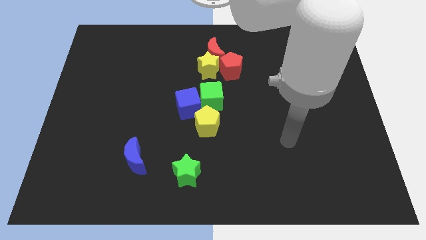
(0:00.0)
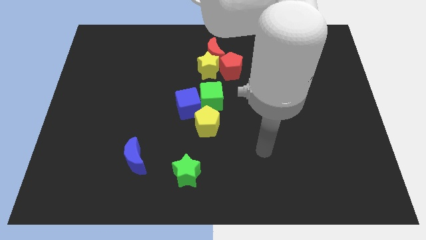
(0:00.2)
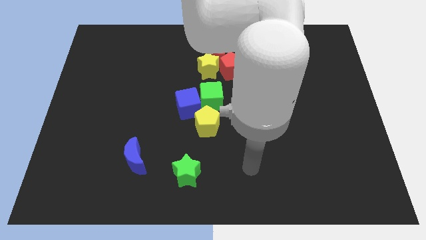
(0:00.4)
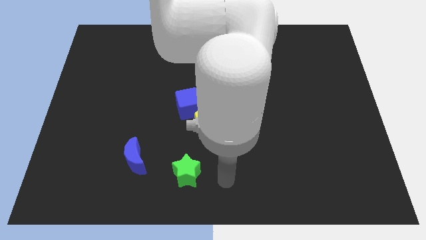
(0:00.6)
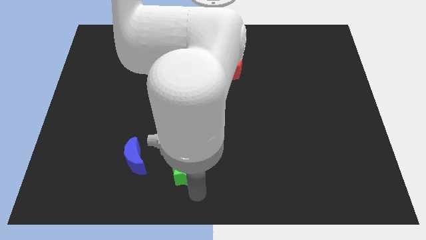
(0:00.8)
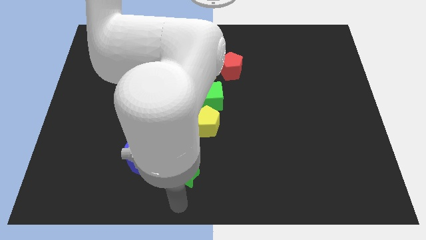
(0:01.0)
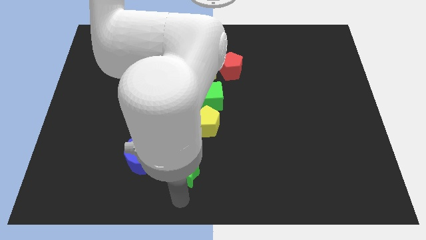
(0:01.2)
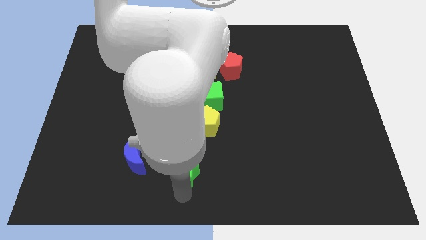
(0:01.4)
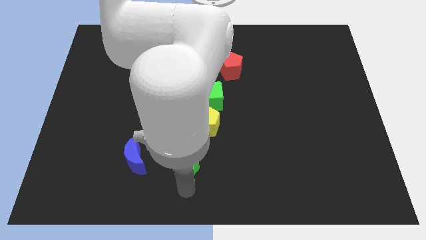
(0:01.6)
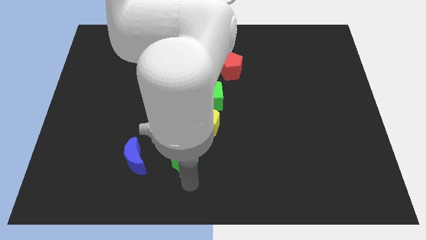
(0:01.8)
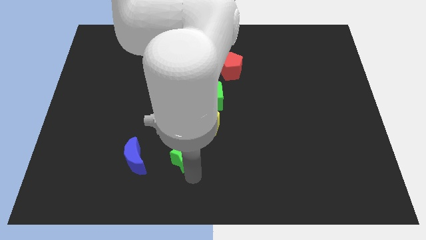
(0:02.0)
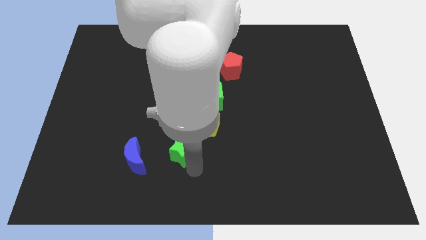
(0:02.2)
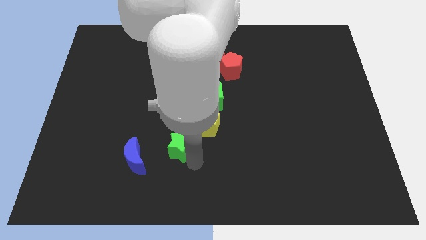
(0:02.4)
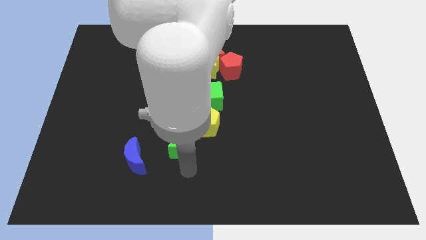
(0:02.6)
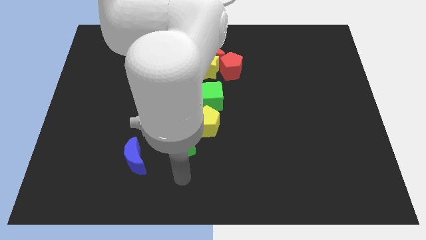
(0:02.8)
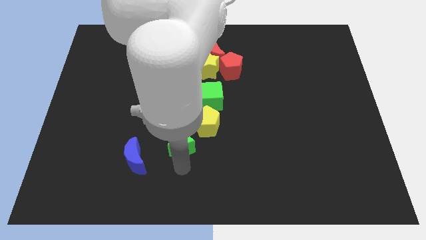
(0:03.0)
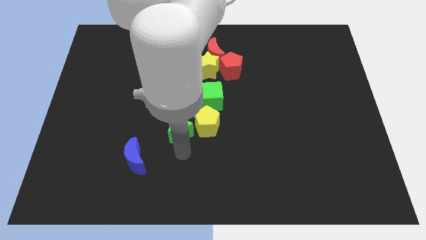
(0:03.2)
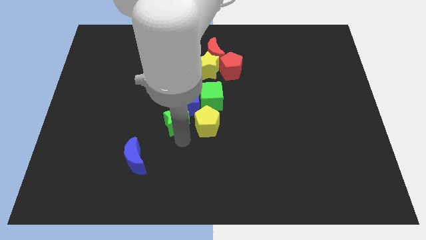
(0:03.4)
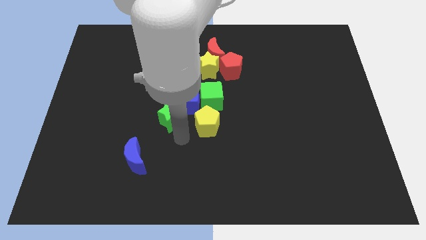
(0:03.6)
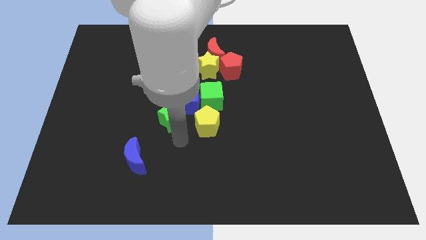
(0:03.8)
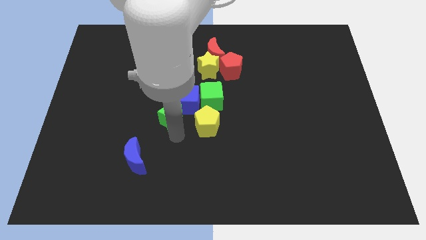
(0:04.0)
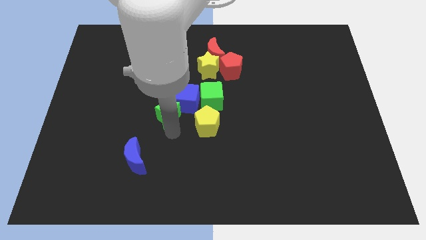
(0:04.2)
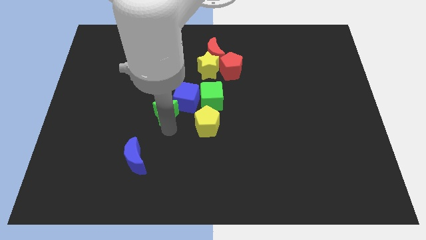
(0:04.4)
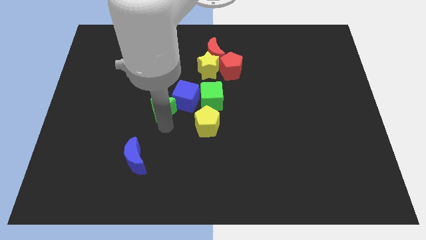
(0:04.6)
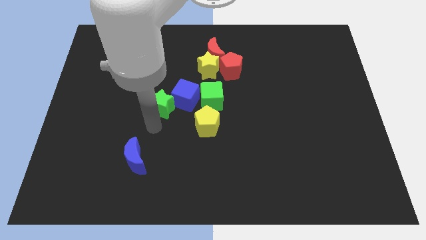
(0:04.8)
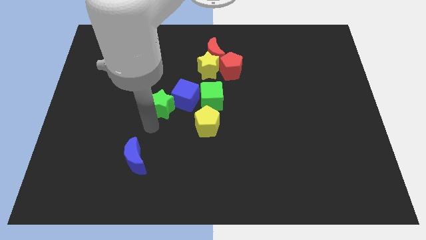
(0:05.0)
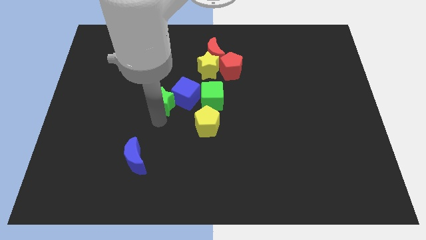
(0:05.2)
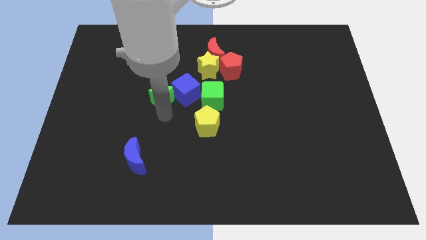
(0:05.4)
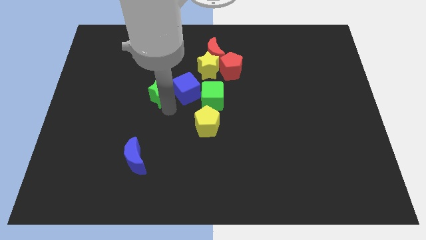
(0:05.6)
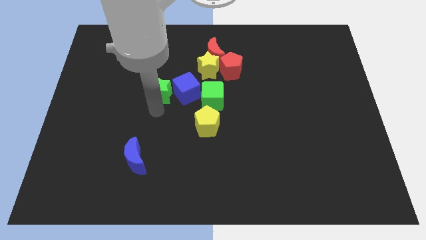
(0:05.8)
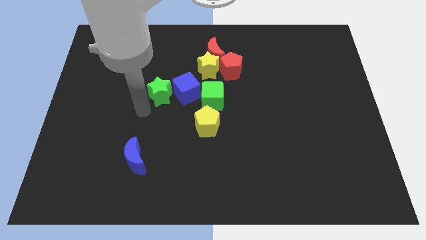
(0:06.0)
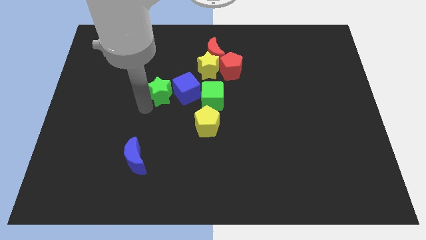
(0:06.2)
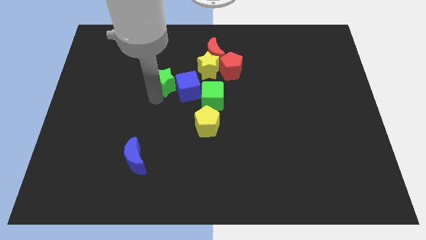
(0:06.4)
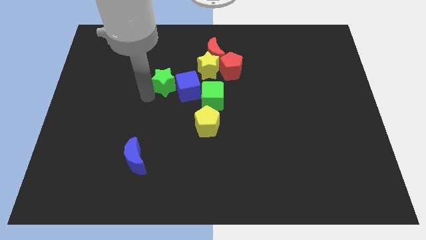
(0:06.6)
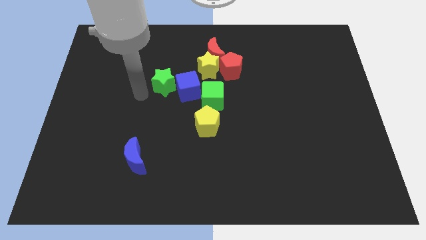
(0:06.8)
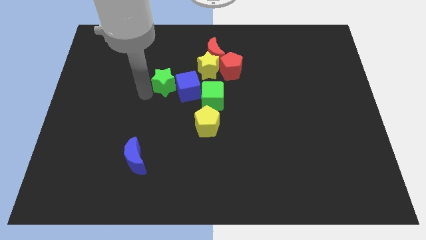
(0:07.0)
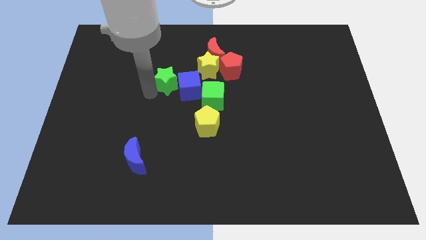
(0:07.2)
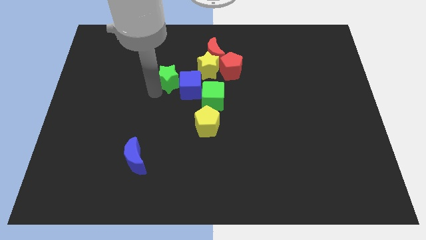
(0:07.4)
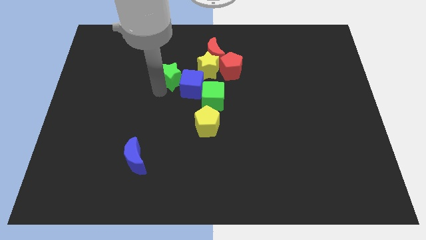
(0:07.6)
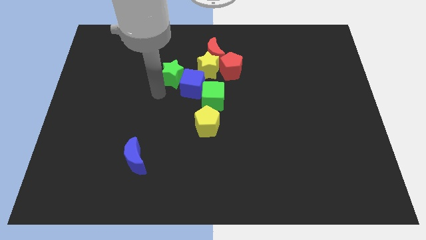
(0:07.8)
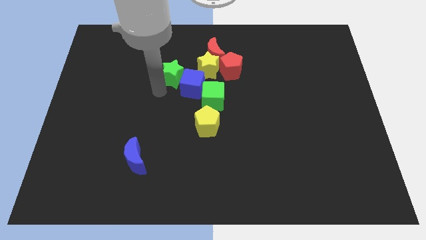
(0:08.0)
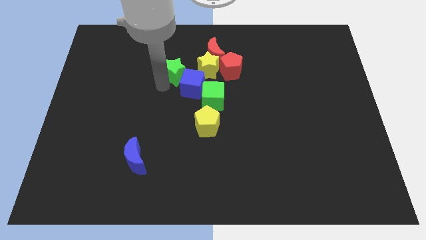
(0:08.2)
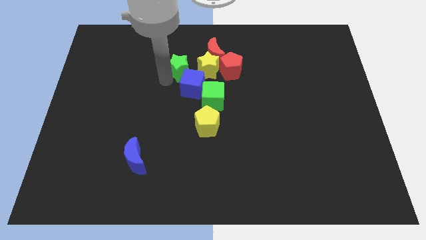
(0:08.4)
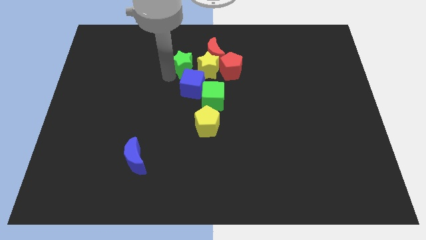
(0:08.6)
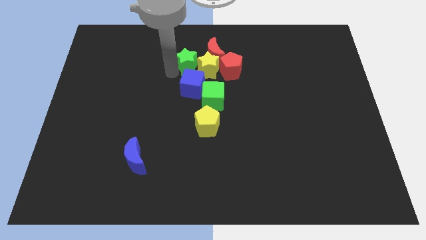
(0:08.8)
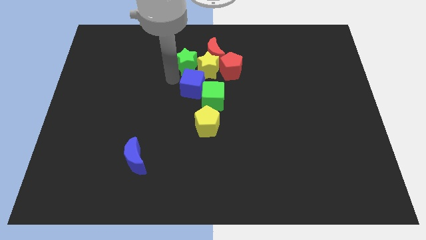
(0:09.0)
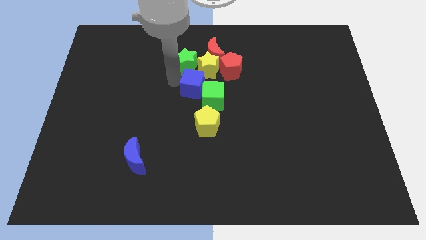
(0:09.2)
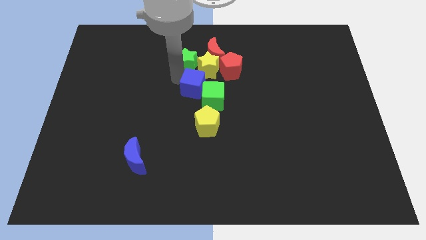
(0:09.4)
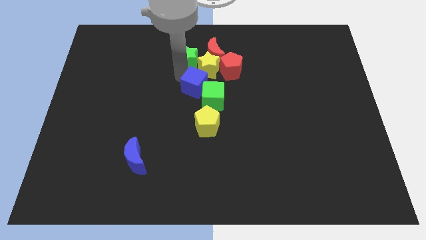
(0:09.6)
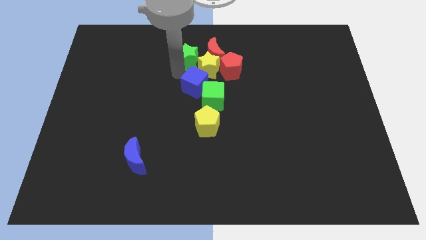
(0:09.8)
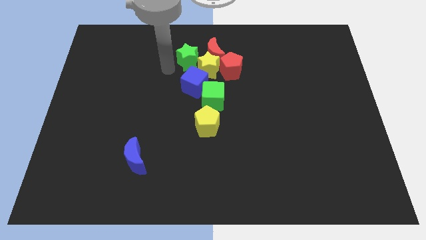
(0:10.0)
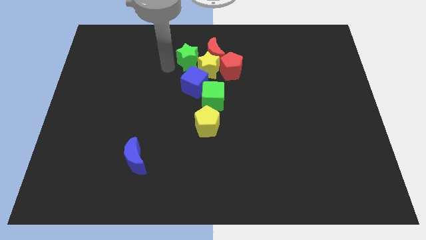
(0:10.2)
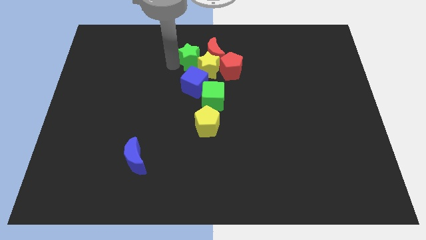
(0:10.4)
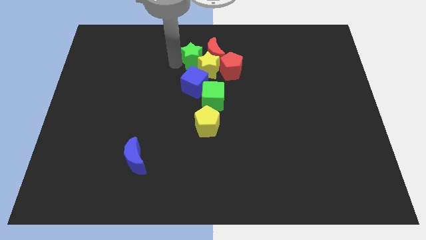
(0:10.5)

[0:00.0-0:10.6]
slide the green star diagonally up and to the left of the red pentagon

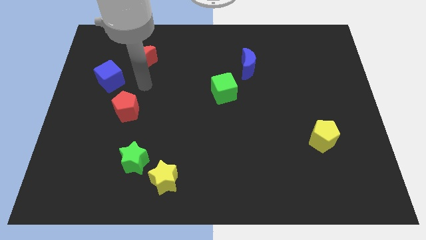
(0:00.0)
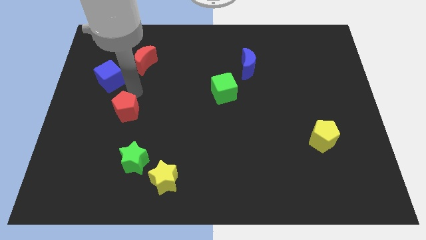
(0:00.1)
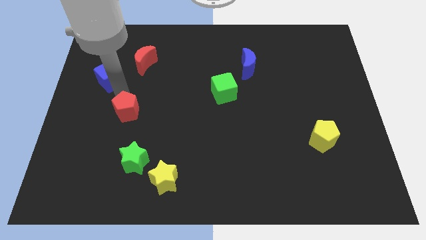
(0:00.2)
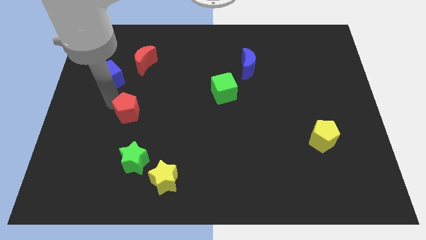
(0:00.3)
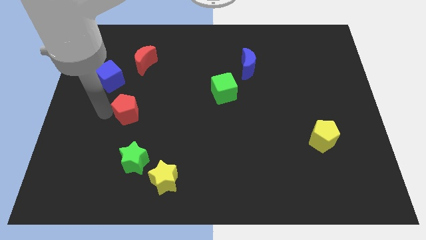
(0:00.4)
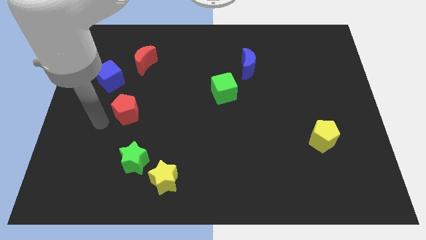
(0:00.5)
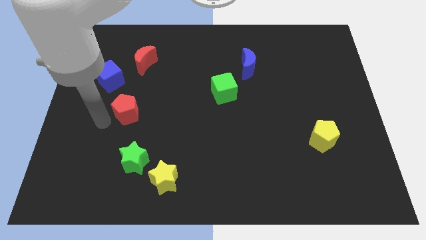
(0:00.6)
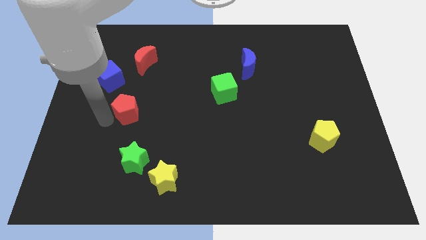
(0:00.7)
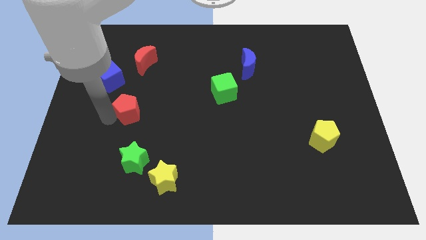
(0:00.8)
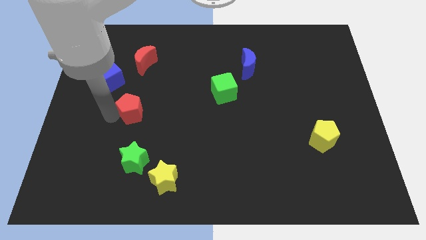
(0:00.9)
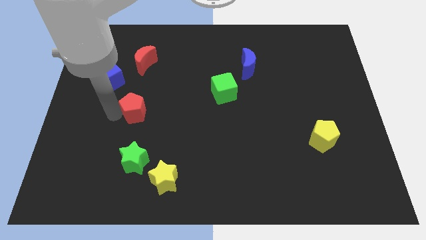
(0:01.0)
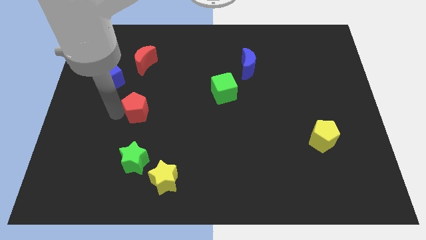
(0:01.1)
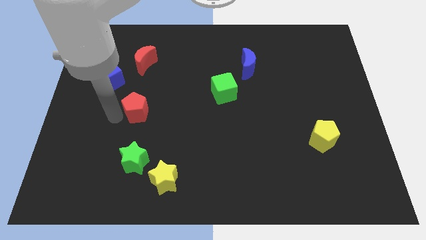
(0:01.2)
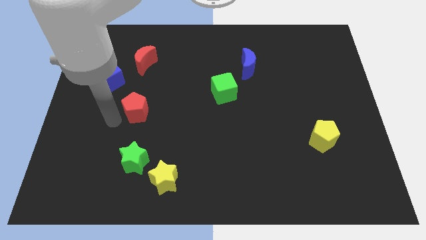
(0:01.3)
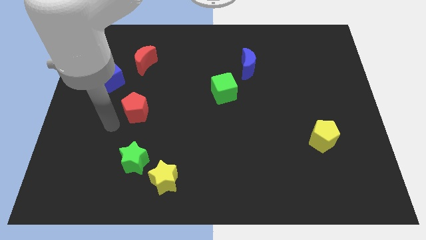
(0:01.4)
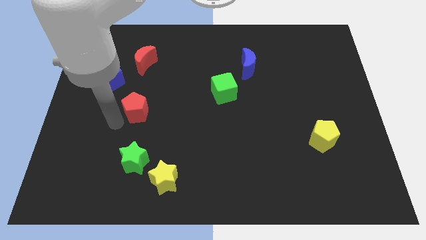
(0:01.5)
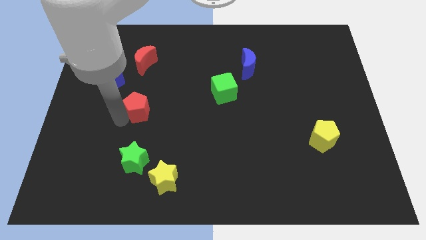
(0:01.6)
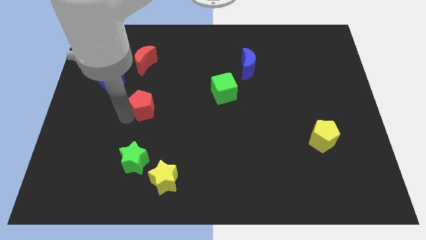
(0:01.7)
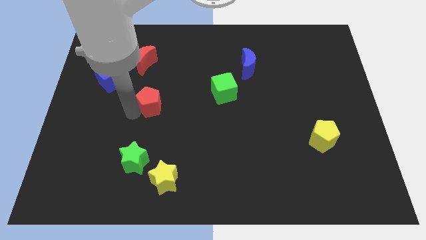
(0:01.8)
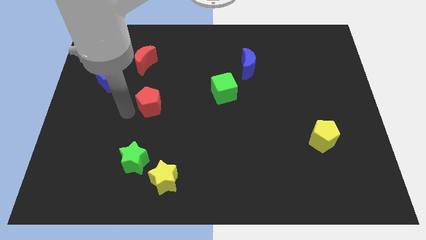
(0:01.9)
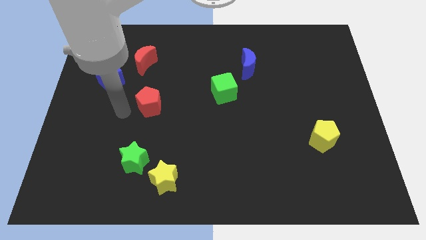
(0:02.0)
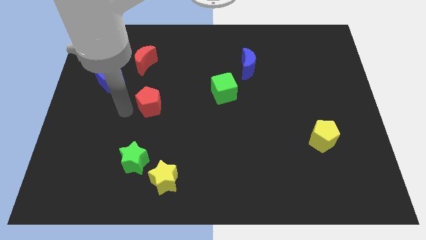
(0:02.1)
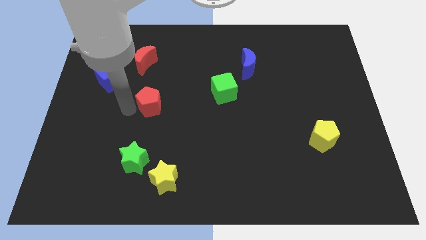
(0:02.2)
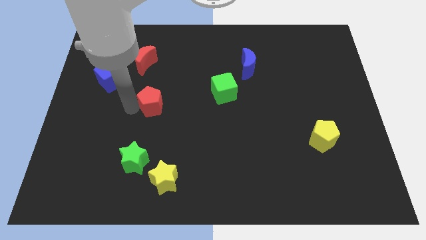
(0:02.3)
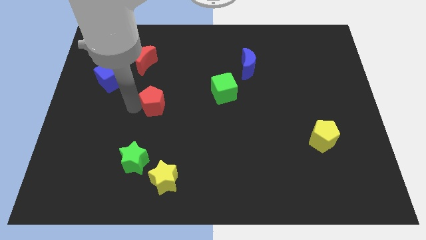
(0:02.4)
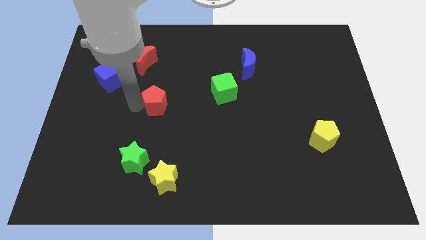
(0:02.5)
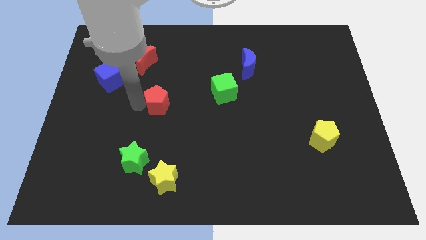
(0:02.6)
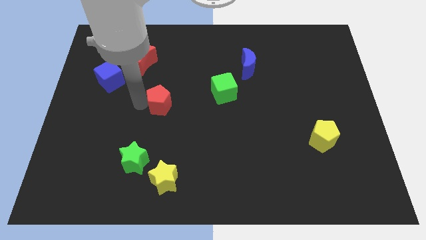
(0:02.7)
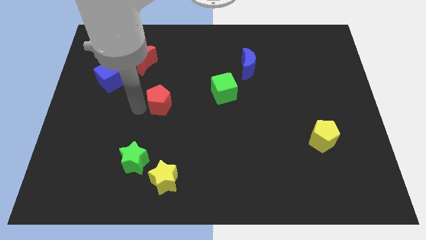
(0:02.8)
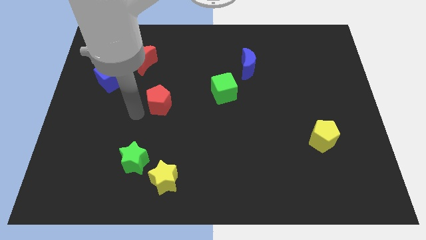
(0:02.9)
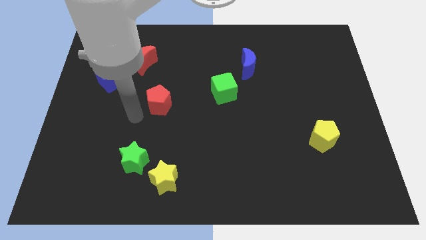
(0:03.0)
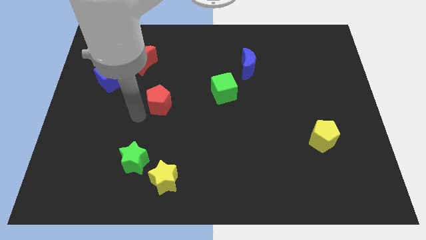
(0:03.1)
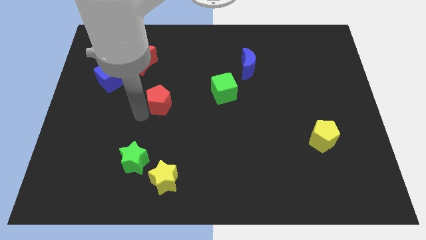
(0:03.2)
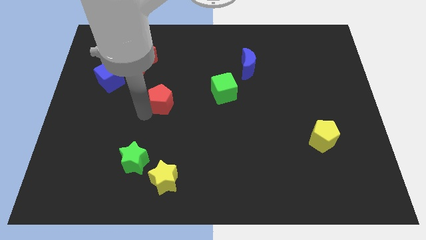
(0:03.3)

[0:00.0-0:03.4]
push the red pentagon to the left of the green cube
